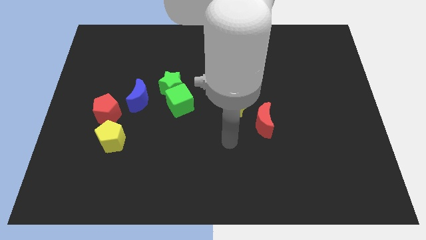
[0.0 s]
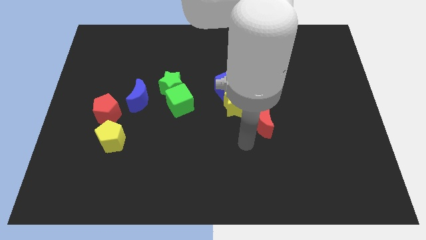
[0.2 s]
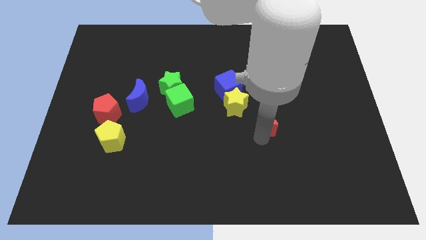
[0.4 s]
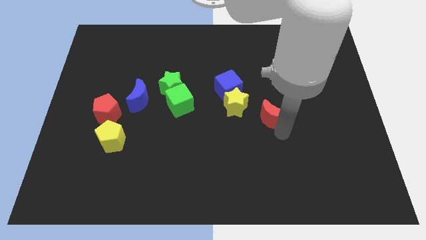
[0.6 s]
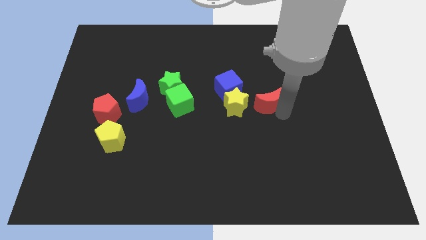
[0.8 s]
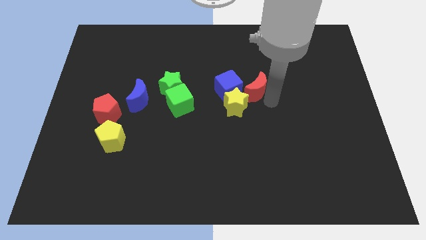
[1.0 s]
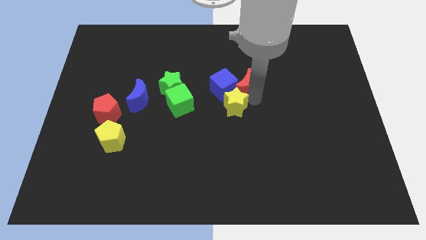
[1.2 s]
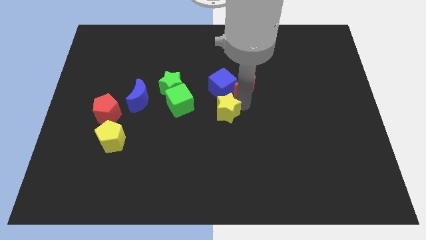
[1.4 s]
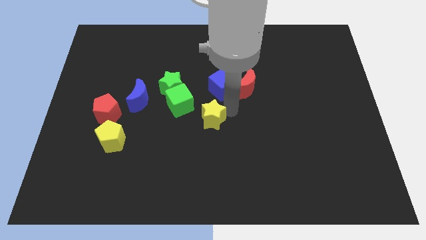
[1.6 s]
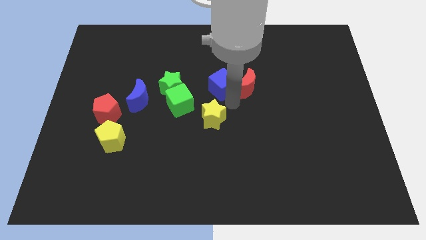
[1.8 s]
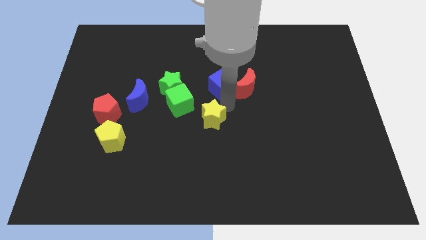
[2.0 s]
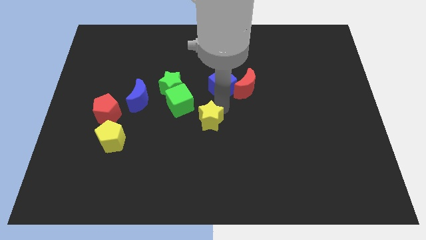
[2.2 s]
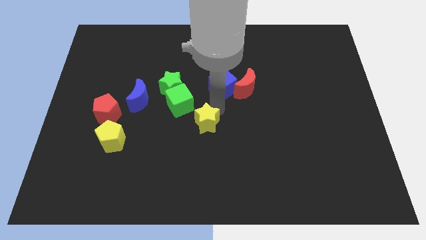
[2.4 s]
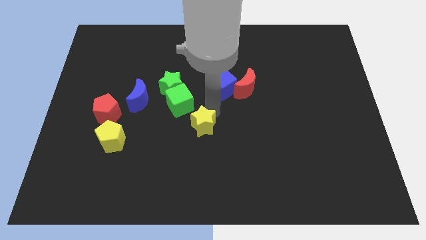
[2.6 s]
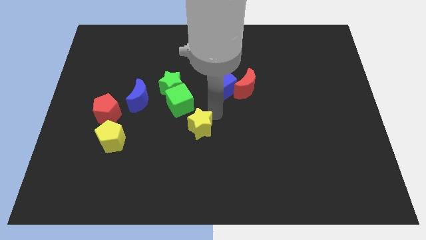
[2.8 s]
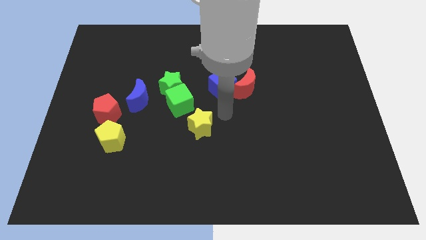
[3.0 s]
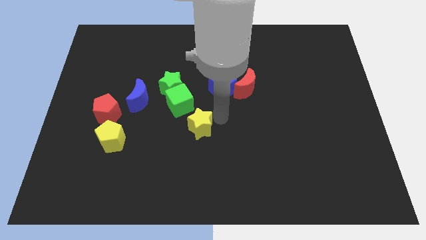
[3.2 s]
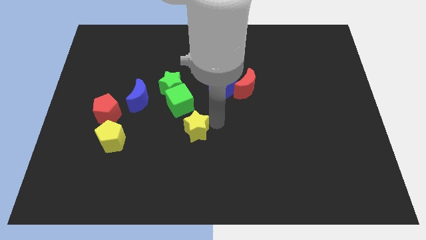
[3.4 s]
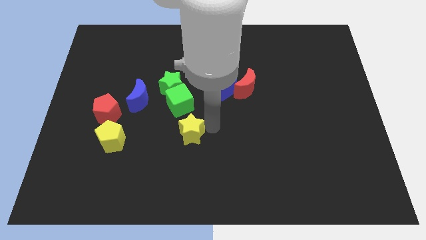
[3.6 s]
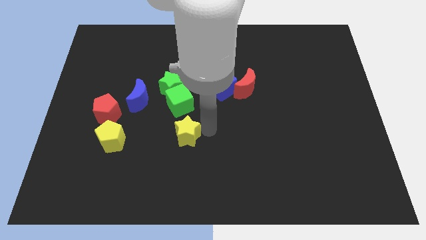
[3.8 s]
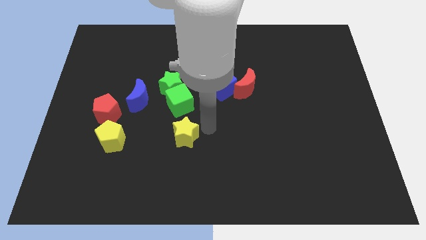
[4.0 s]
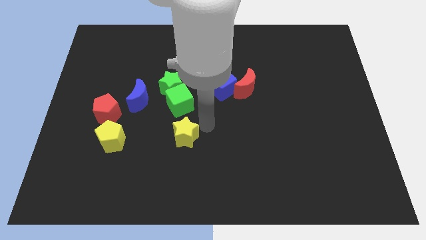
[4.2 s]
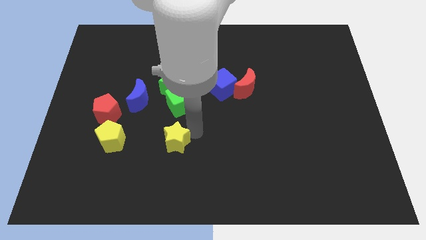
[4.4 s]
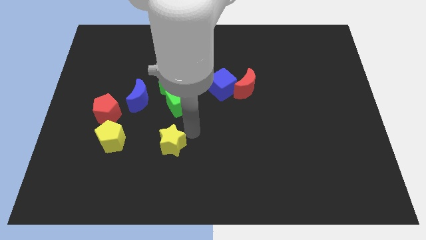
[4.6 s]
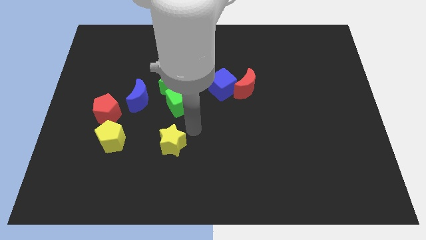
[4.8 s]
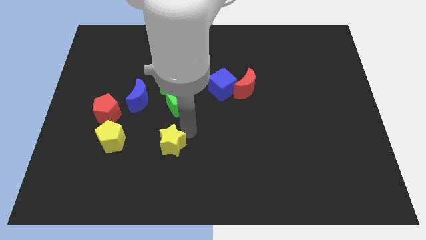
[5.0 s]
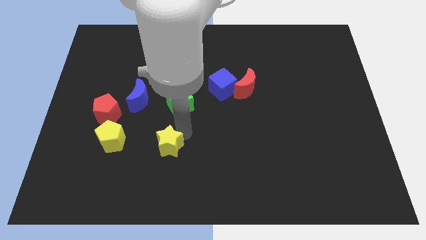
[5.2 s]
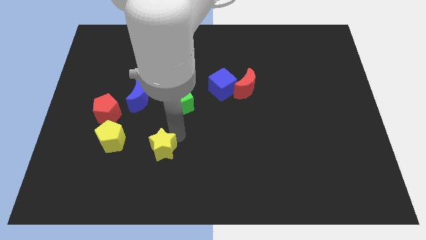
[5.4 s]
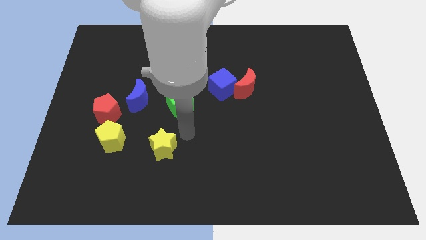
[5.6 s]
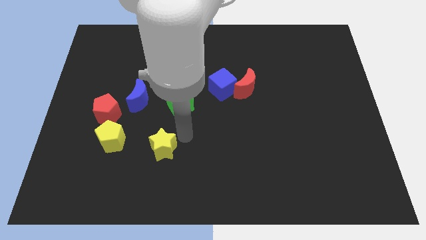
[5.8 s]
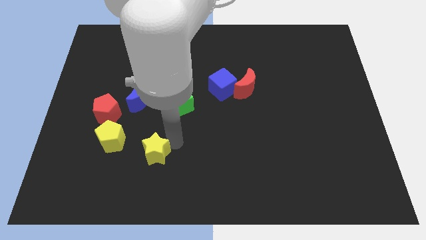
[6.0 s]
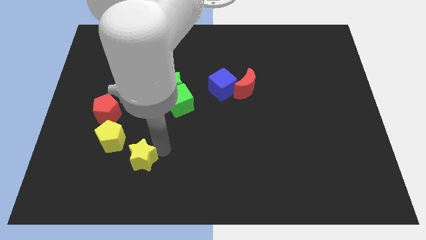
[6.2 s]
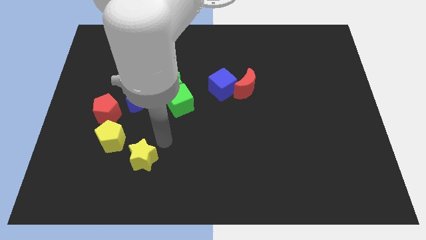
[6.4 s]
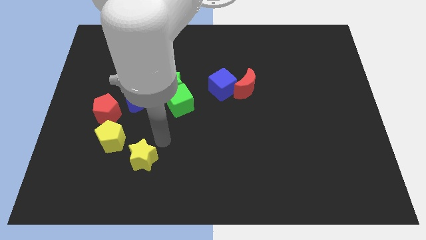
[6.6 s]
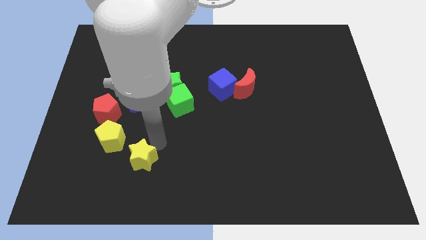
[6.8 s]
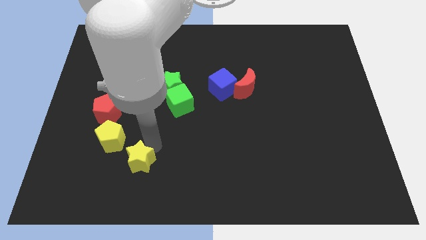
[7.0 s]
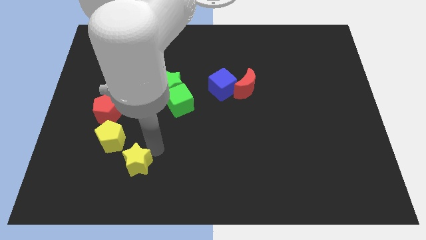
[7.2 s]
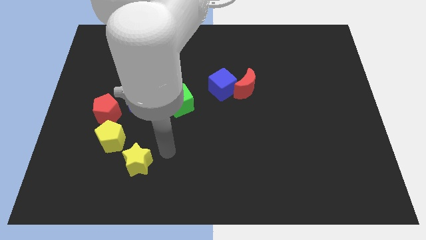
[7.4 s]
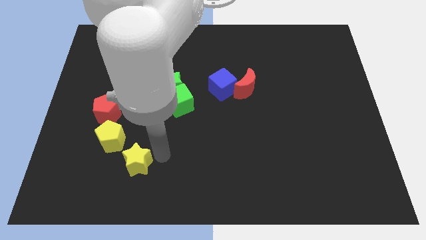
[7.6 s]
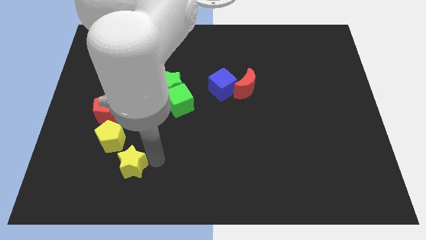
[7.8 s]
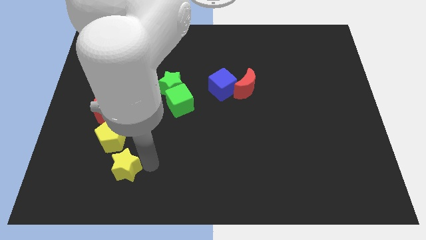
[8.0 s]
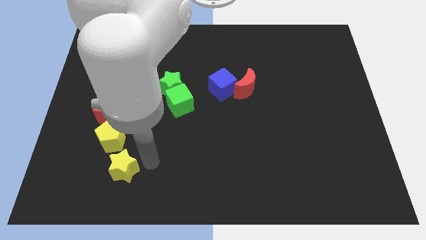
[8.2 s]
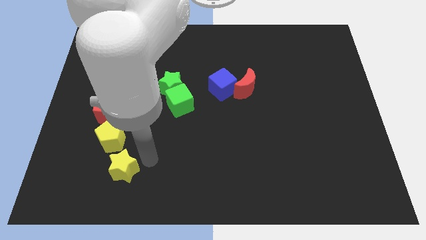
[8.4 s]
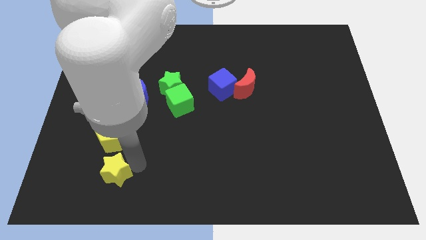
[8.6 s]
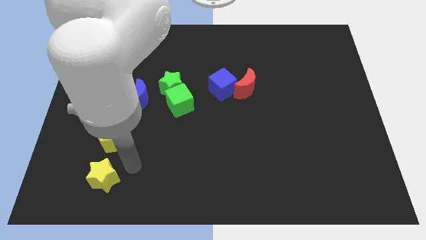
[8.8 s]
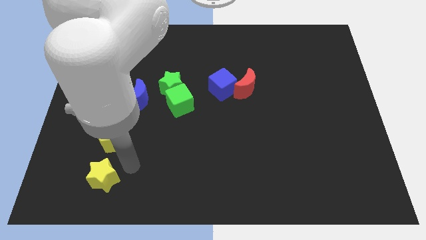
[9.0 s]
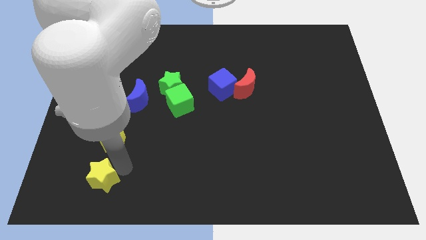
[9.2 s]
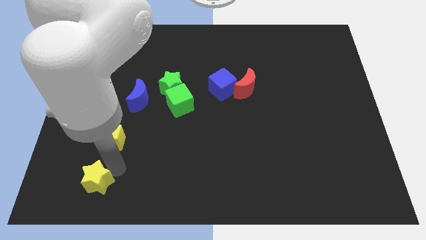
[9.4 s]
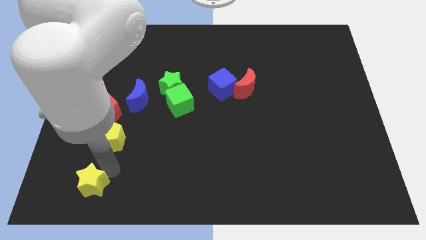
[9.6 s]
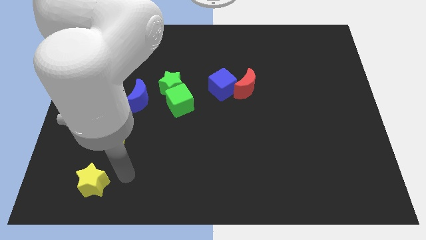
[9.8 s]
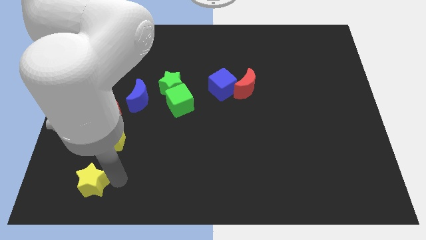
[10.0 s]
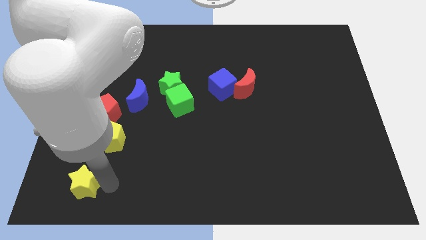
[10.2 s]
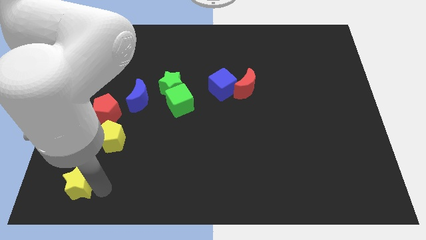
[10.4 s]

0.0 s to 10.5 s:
put the yellow star to the bottom left of the board

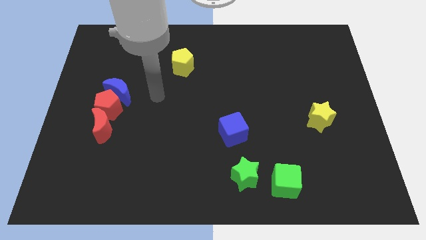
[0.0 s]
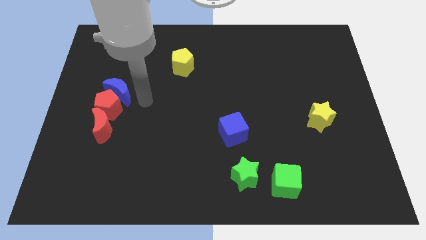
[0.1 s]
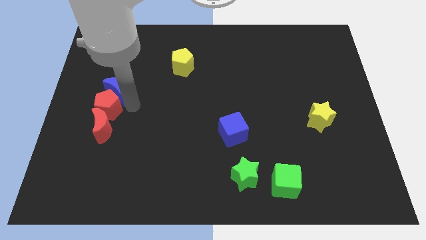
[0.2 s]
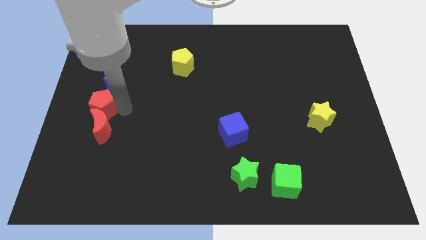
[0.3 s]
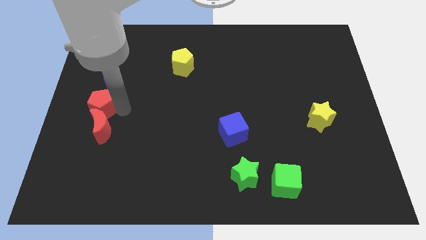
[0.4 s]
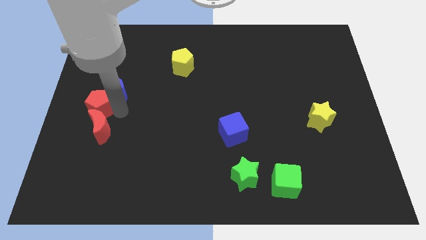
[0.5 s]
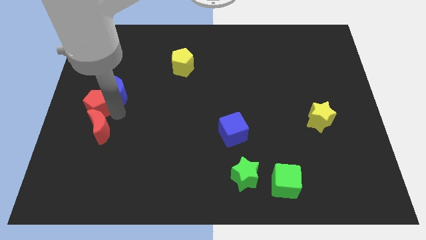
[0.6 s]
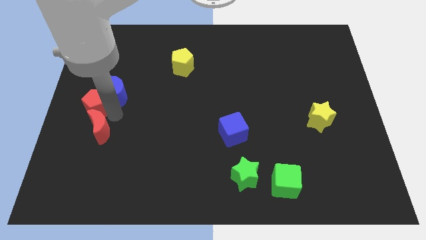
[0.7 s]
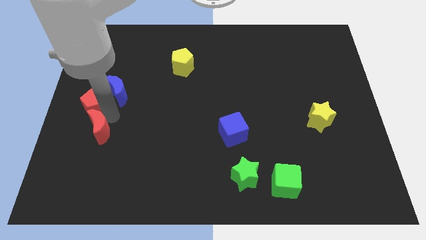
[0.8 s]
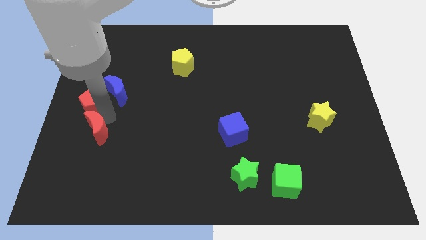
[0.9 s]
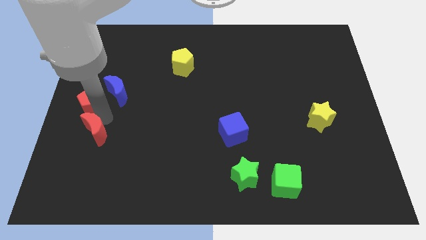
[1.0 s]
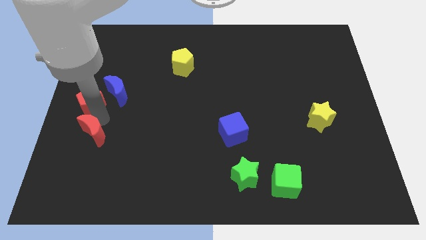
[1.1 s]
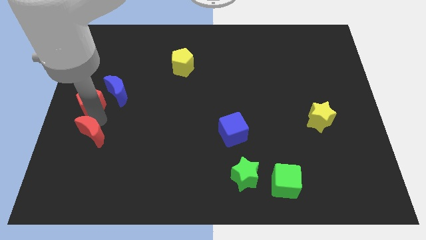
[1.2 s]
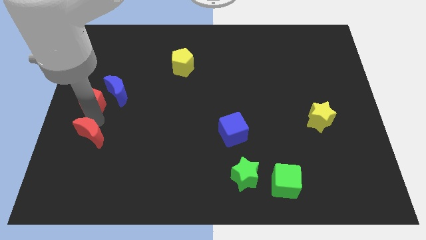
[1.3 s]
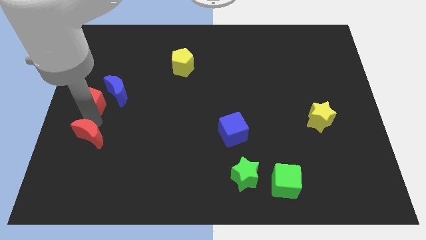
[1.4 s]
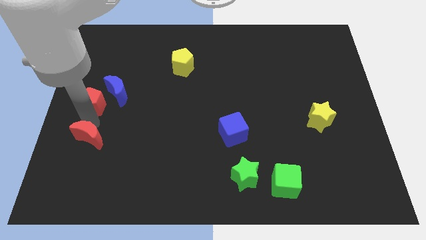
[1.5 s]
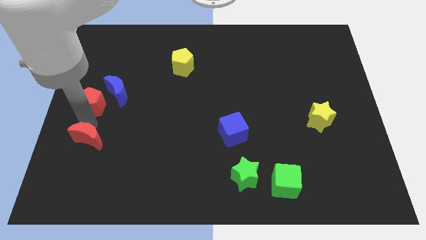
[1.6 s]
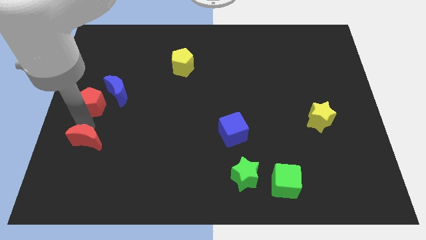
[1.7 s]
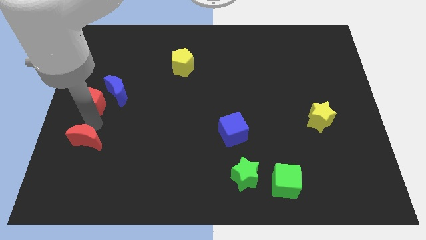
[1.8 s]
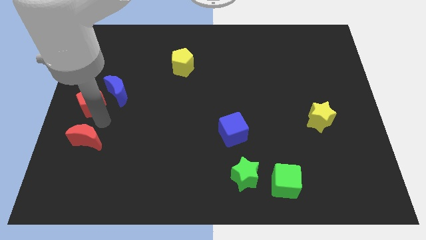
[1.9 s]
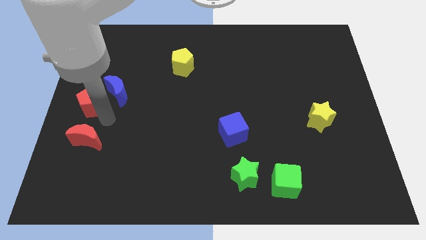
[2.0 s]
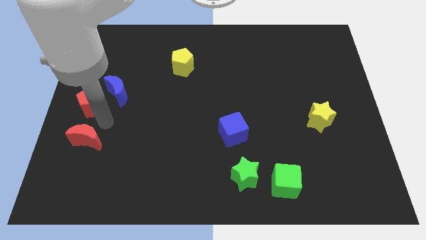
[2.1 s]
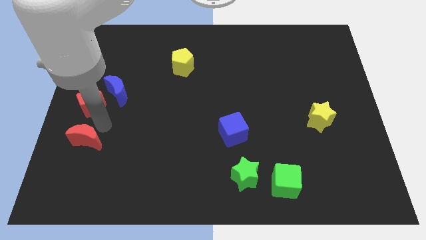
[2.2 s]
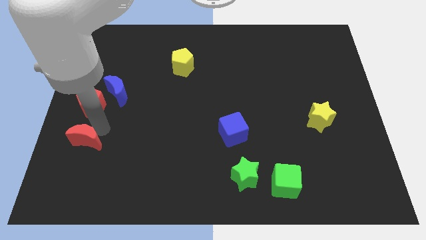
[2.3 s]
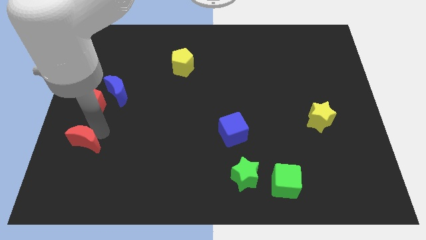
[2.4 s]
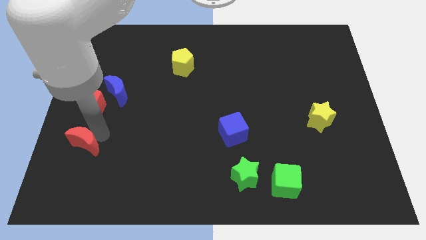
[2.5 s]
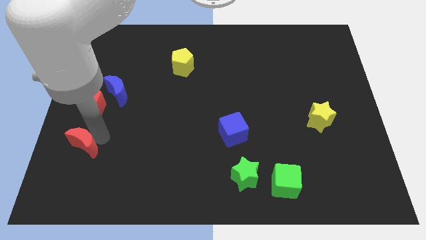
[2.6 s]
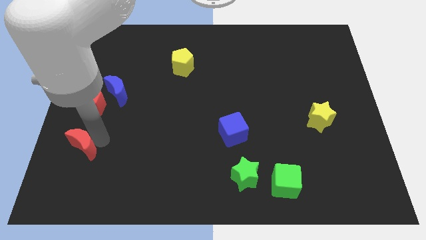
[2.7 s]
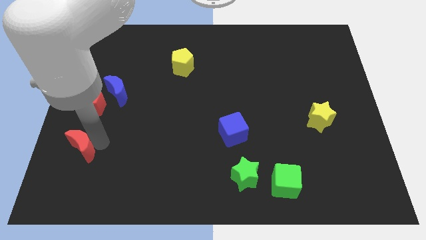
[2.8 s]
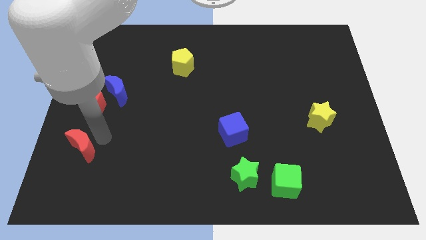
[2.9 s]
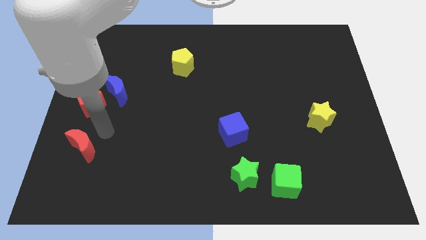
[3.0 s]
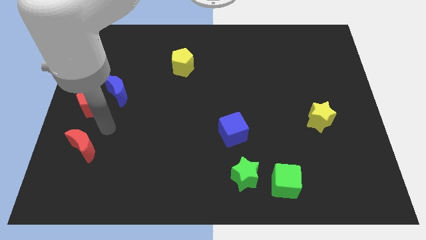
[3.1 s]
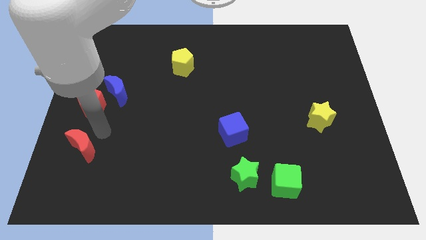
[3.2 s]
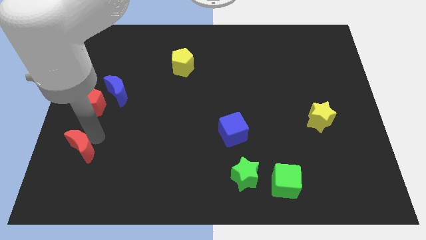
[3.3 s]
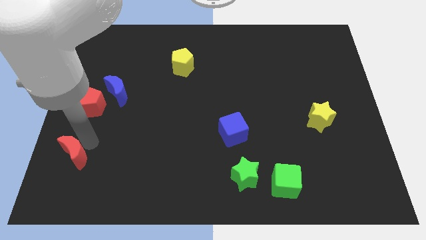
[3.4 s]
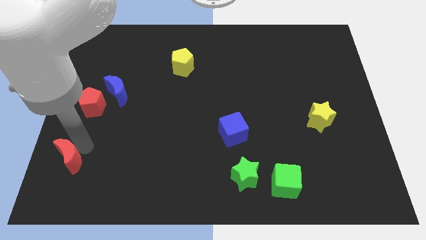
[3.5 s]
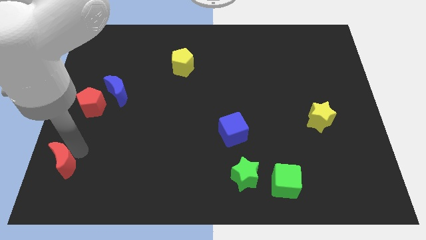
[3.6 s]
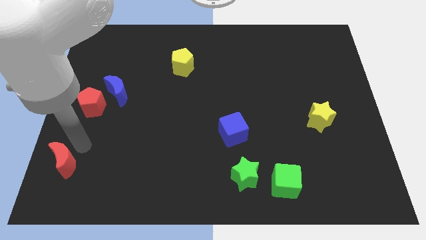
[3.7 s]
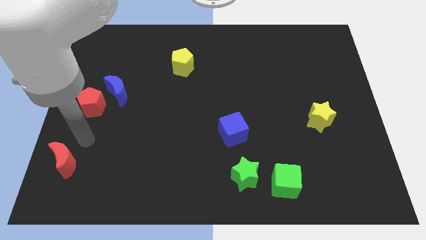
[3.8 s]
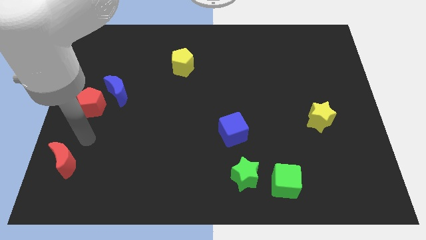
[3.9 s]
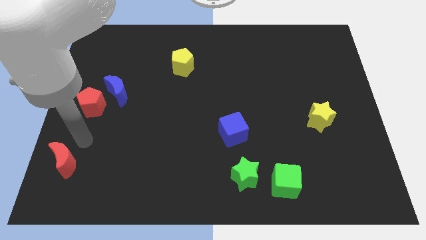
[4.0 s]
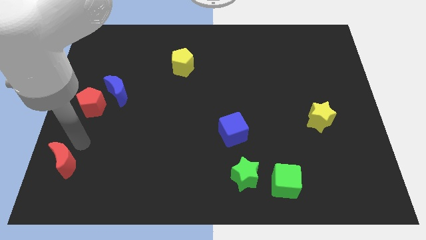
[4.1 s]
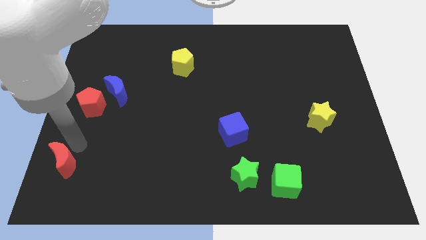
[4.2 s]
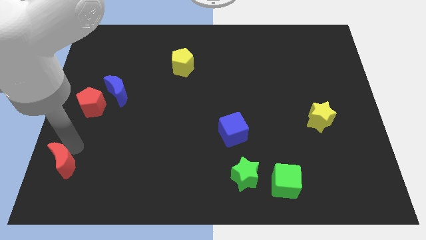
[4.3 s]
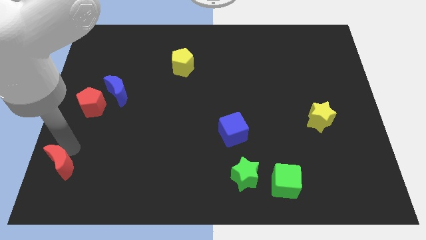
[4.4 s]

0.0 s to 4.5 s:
push the red moon to the bottom left
